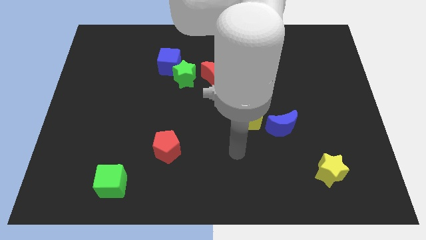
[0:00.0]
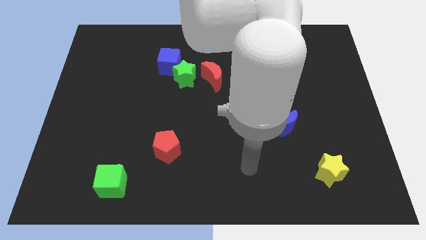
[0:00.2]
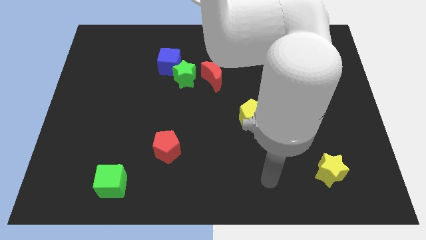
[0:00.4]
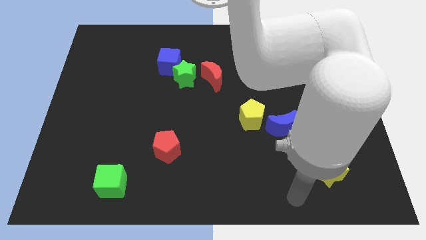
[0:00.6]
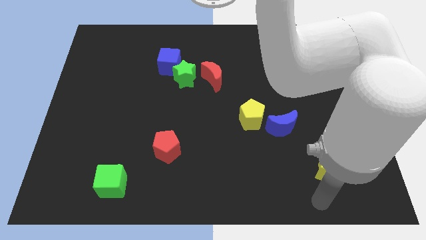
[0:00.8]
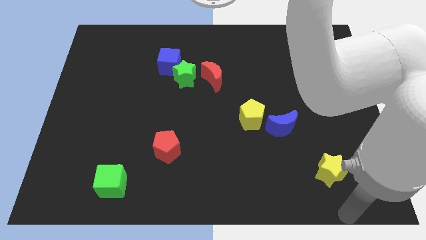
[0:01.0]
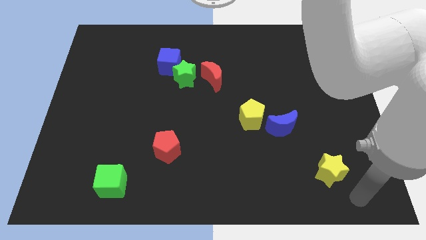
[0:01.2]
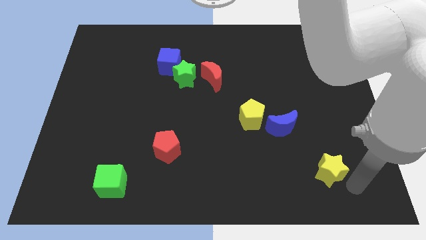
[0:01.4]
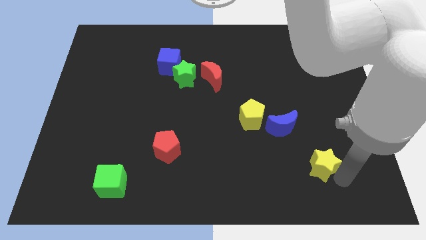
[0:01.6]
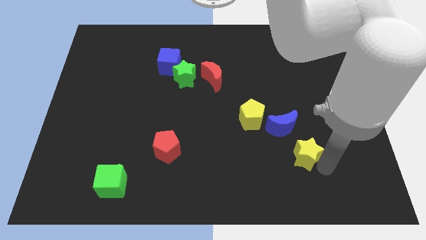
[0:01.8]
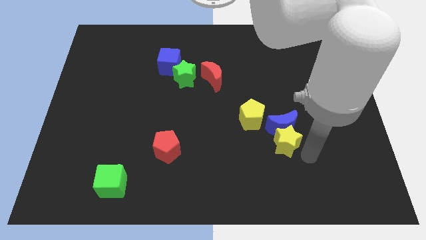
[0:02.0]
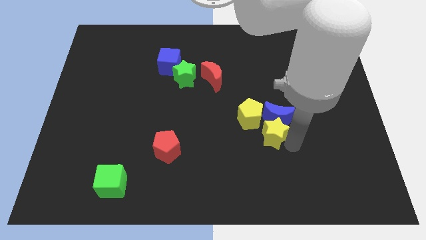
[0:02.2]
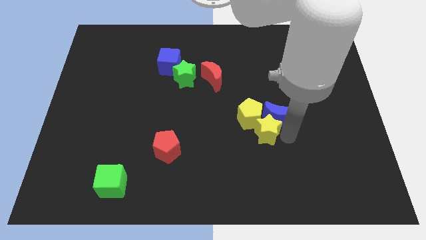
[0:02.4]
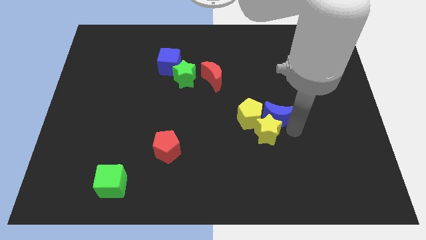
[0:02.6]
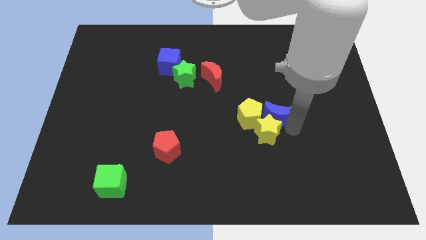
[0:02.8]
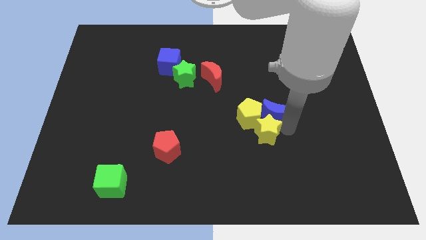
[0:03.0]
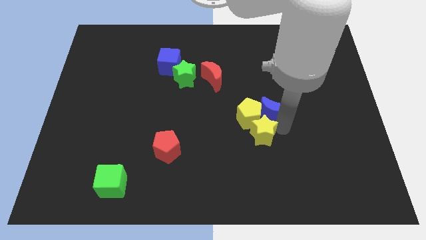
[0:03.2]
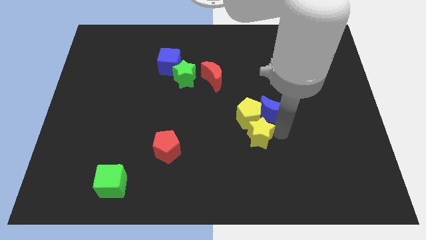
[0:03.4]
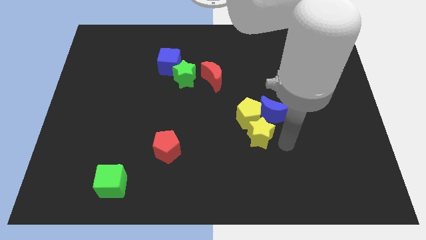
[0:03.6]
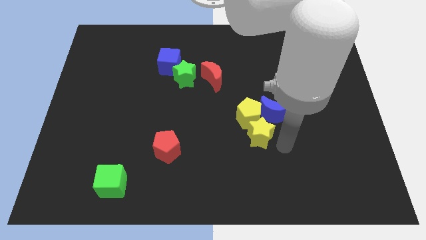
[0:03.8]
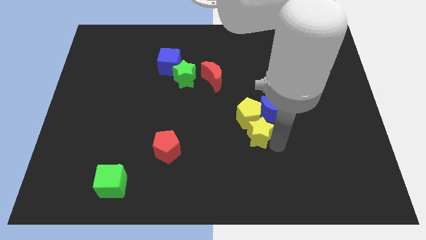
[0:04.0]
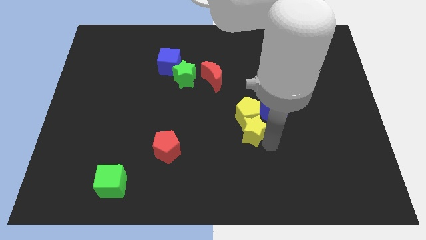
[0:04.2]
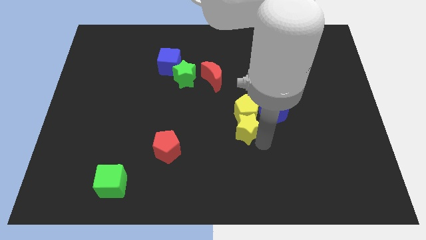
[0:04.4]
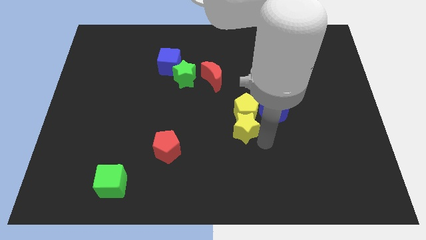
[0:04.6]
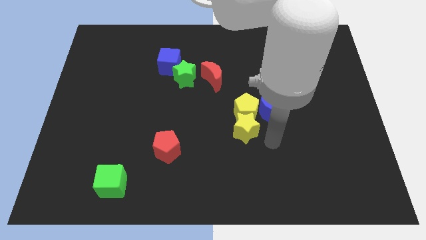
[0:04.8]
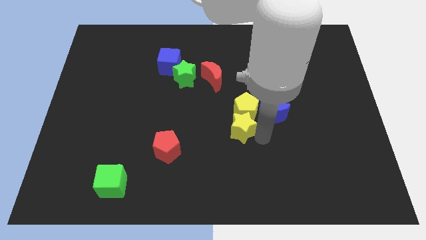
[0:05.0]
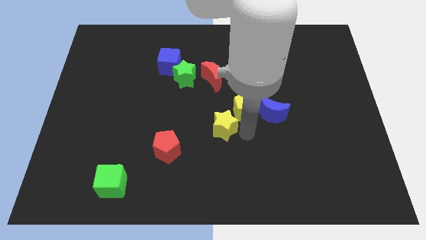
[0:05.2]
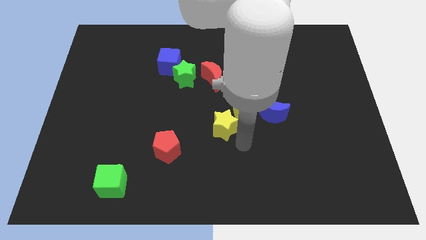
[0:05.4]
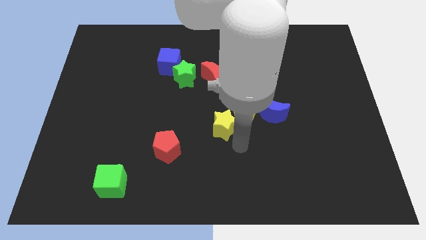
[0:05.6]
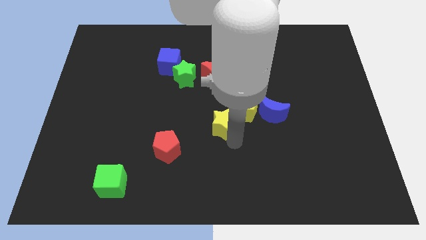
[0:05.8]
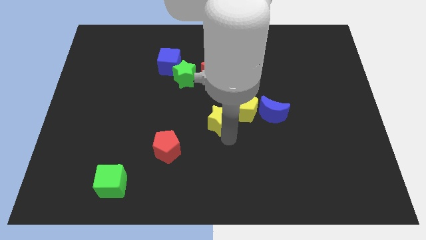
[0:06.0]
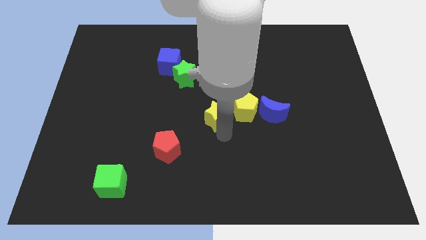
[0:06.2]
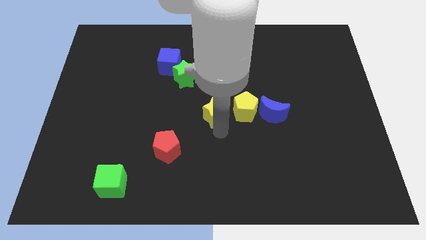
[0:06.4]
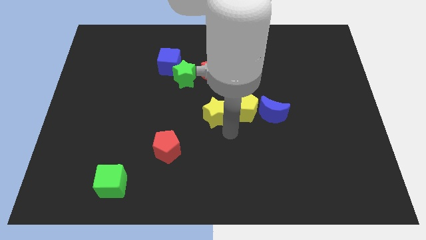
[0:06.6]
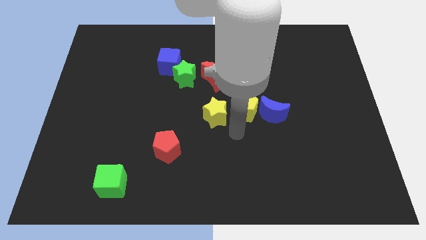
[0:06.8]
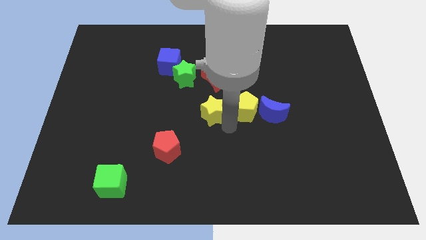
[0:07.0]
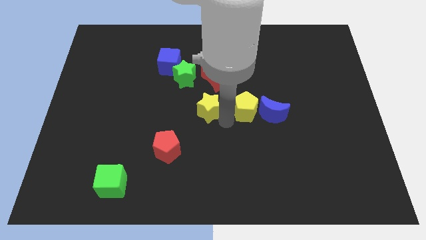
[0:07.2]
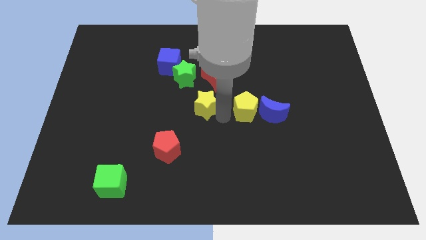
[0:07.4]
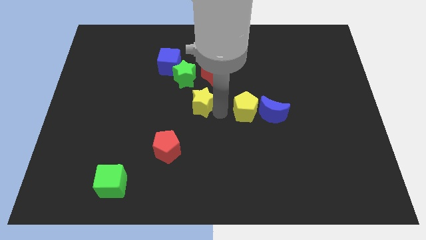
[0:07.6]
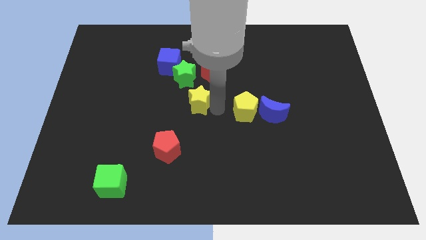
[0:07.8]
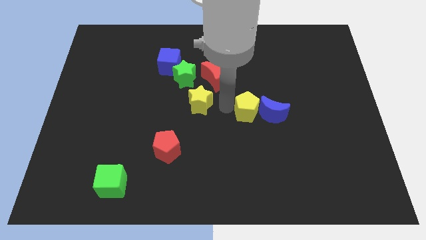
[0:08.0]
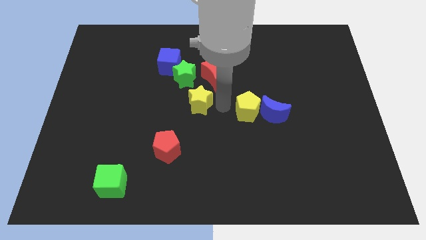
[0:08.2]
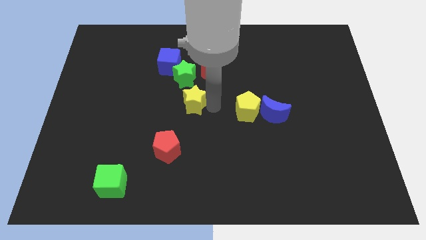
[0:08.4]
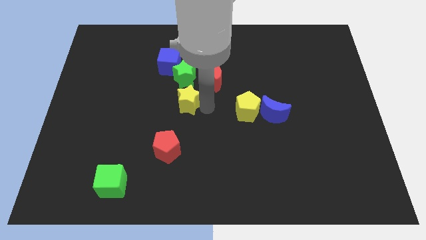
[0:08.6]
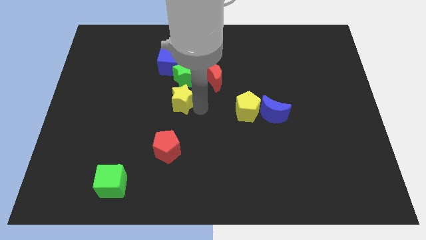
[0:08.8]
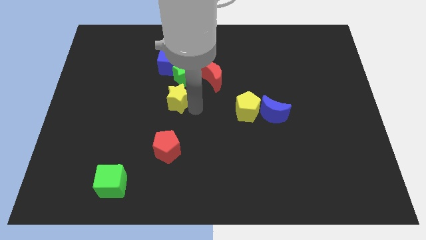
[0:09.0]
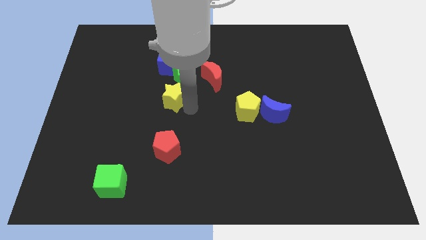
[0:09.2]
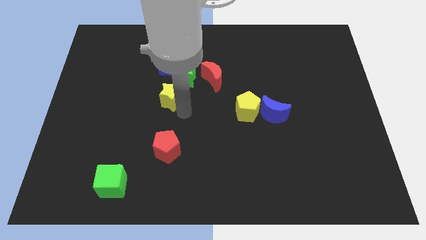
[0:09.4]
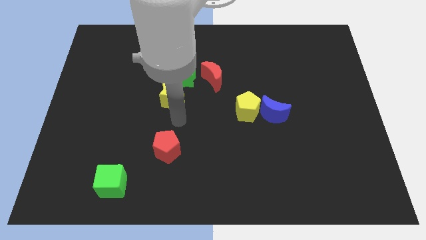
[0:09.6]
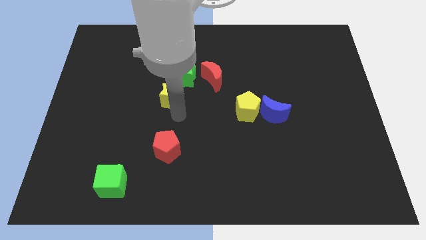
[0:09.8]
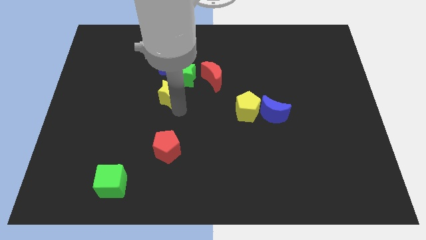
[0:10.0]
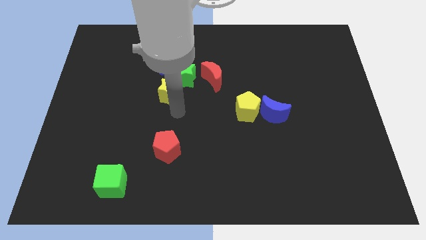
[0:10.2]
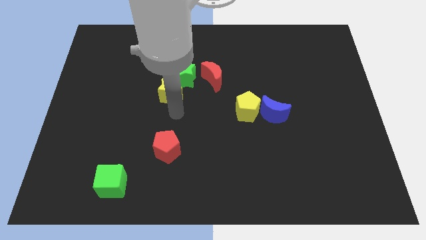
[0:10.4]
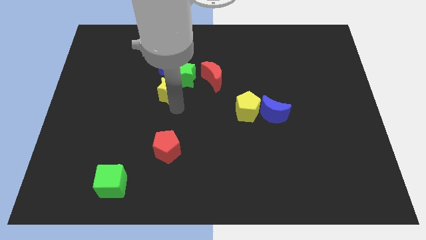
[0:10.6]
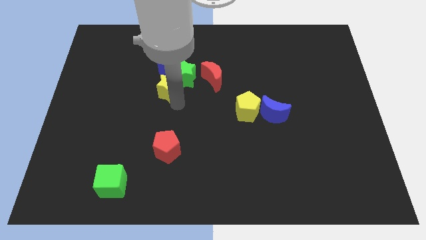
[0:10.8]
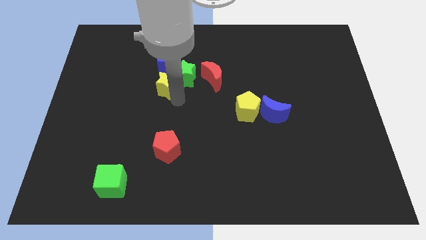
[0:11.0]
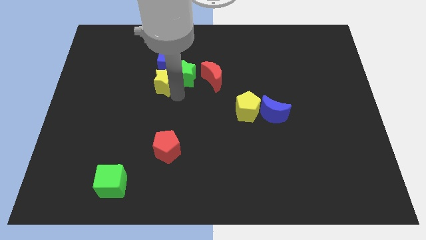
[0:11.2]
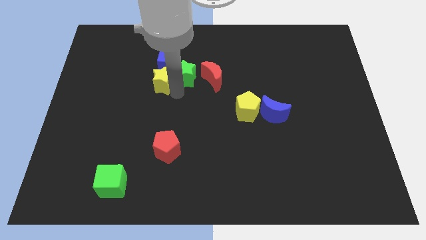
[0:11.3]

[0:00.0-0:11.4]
move the yellow star towards the blue cube

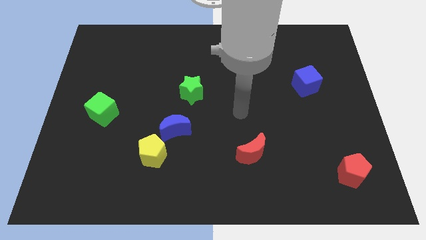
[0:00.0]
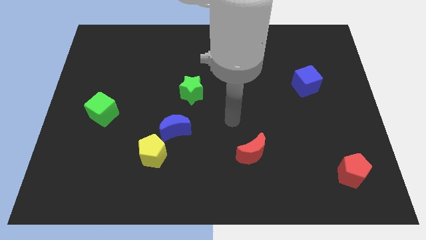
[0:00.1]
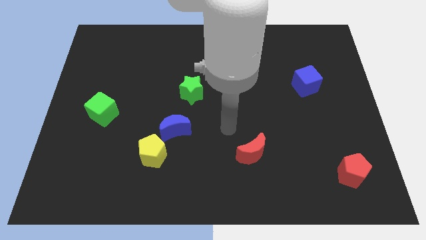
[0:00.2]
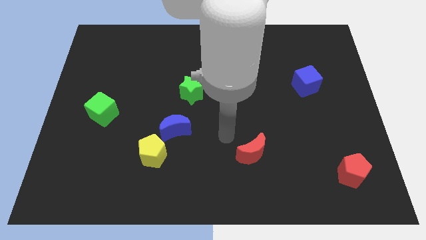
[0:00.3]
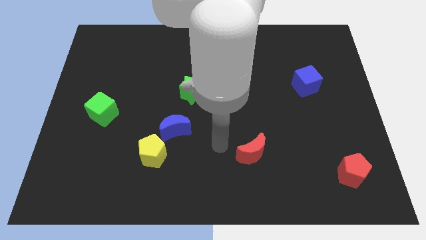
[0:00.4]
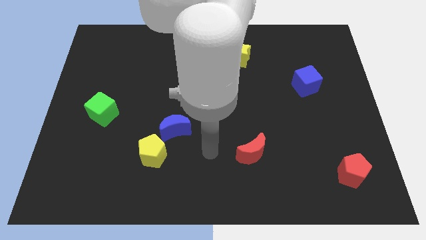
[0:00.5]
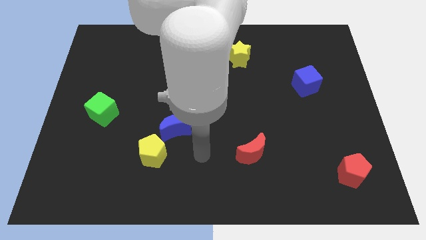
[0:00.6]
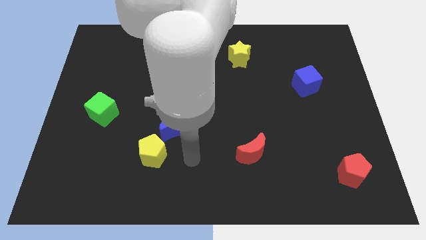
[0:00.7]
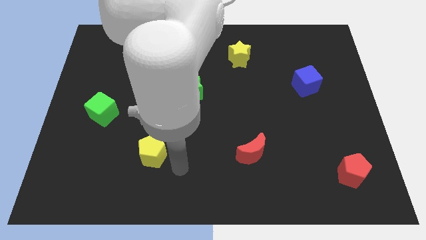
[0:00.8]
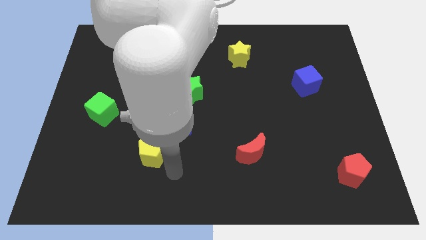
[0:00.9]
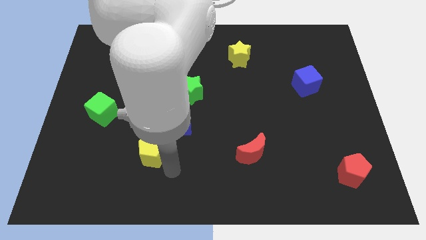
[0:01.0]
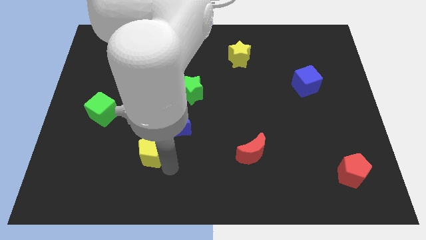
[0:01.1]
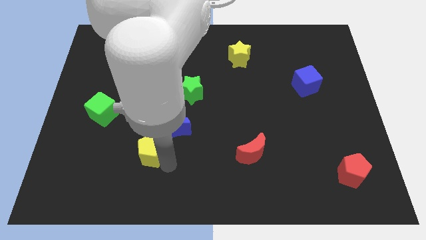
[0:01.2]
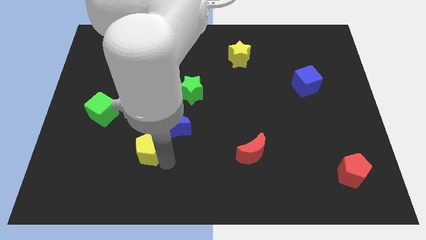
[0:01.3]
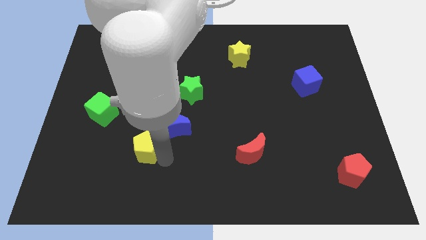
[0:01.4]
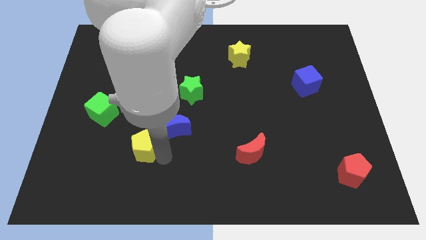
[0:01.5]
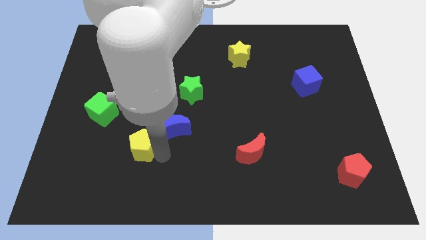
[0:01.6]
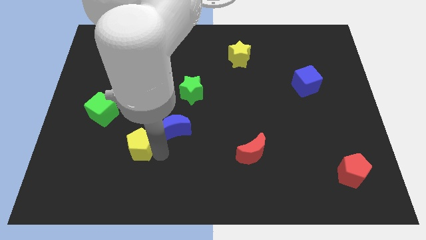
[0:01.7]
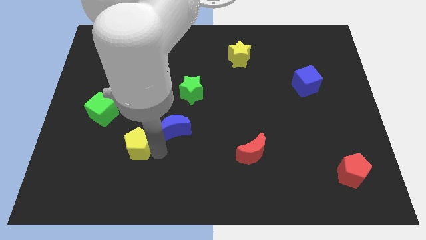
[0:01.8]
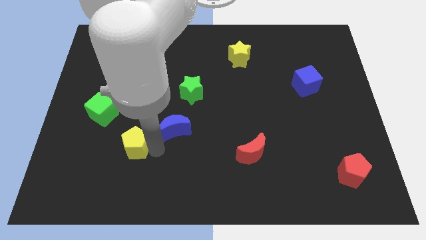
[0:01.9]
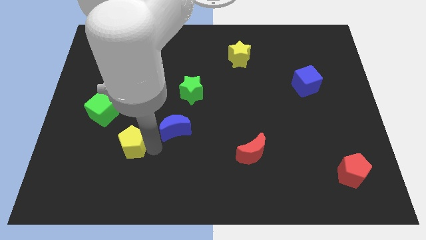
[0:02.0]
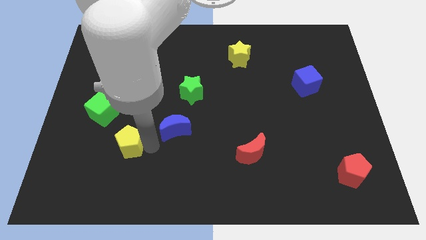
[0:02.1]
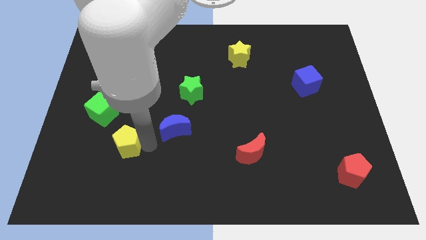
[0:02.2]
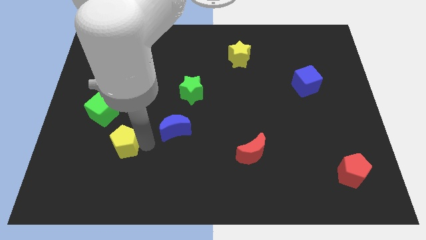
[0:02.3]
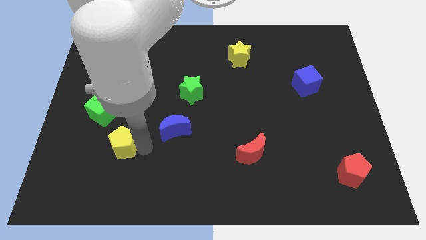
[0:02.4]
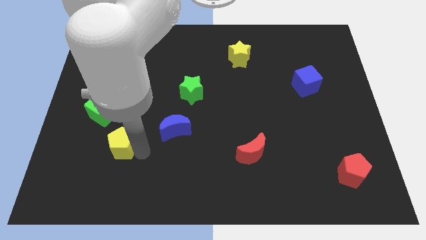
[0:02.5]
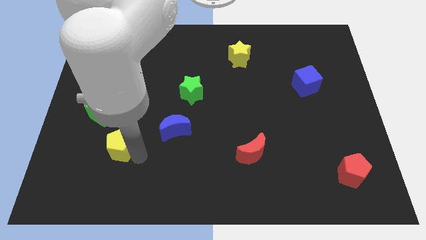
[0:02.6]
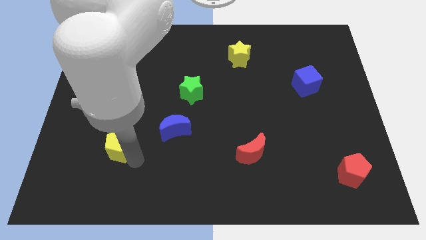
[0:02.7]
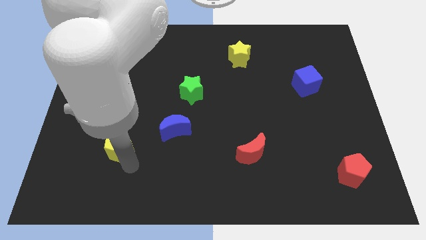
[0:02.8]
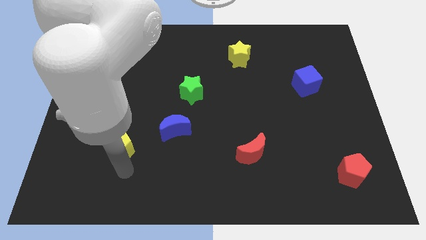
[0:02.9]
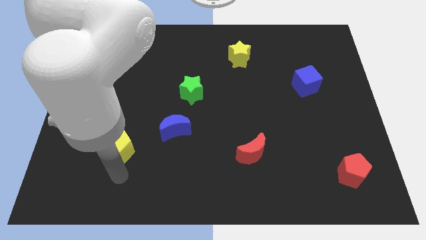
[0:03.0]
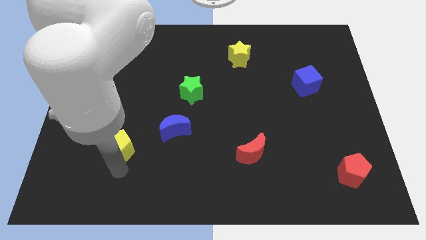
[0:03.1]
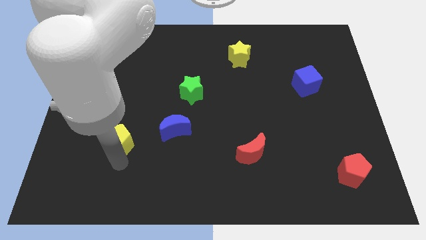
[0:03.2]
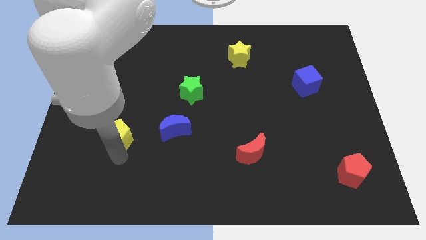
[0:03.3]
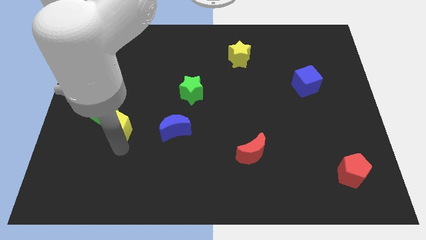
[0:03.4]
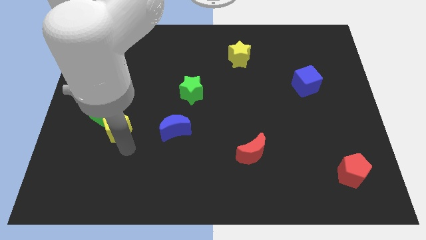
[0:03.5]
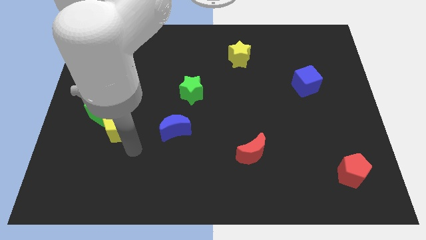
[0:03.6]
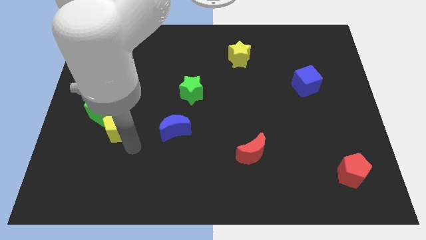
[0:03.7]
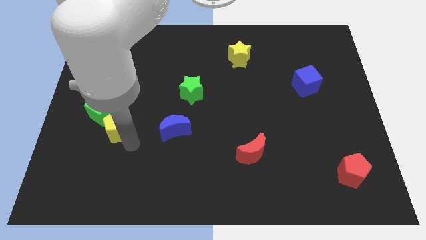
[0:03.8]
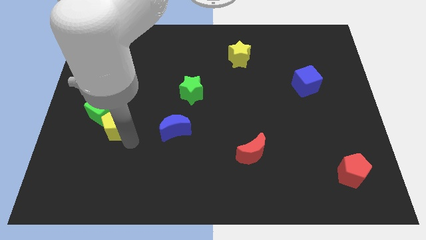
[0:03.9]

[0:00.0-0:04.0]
slide the yellow pentagon next to the green cube
